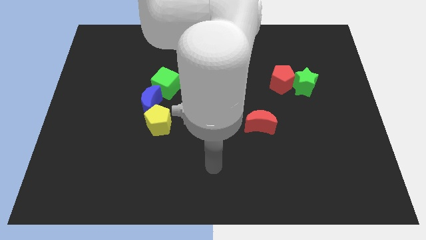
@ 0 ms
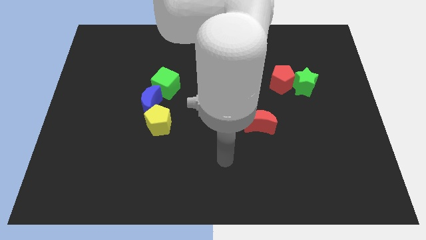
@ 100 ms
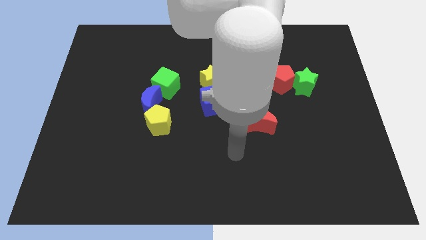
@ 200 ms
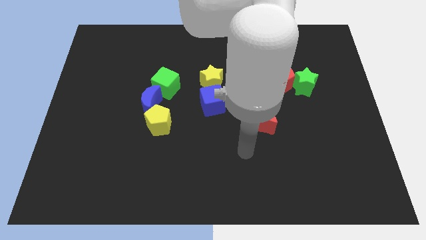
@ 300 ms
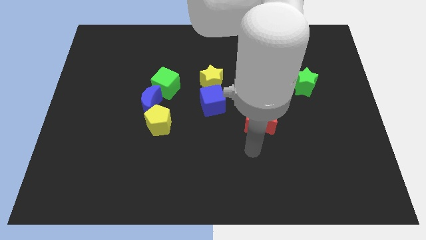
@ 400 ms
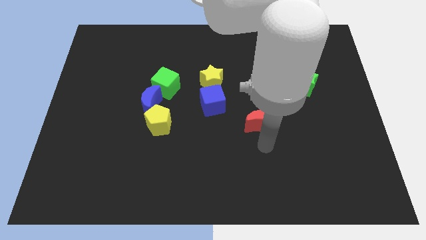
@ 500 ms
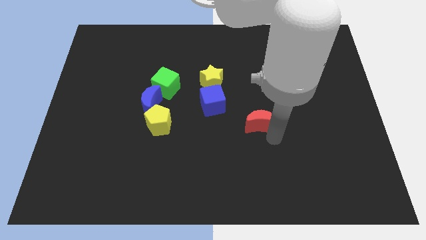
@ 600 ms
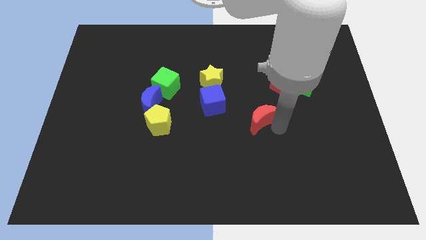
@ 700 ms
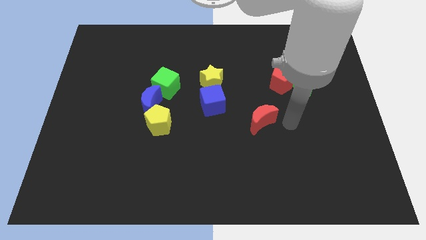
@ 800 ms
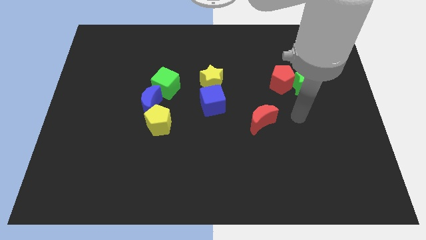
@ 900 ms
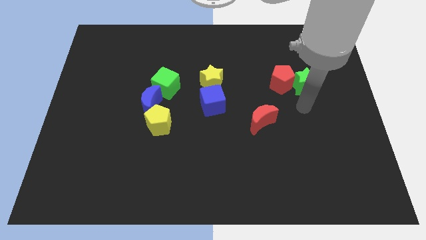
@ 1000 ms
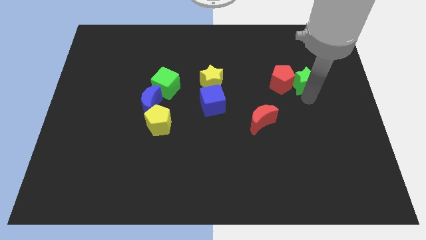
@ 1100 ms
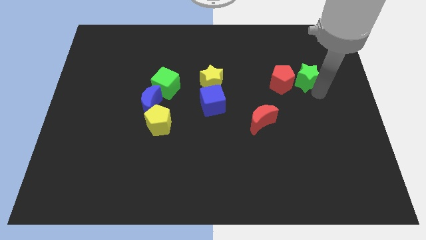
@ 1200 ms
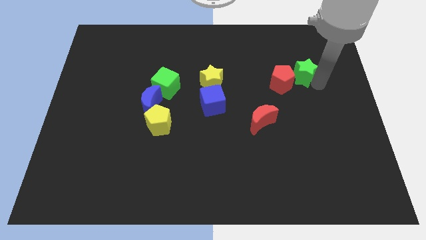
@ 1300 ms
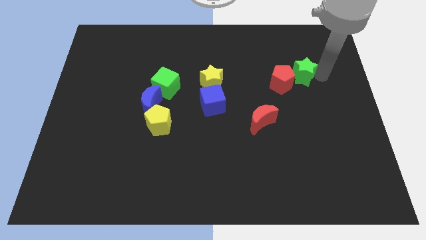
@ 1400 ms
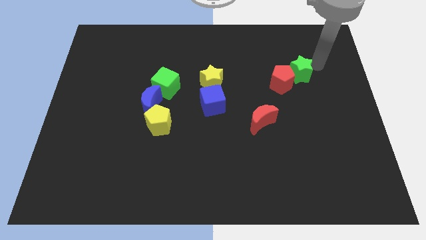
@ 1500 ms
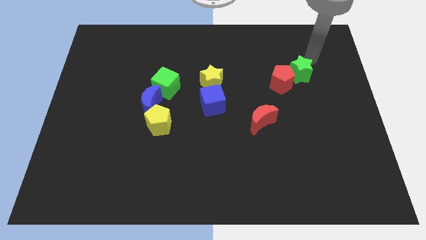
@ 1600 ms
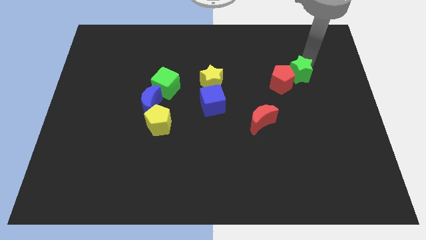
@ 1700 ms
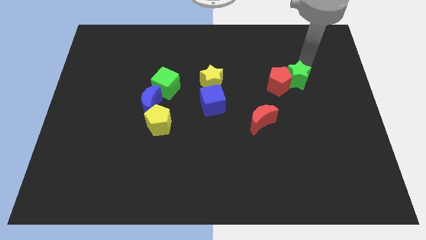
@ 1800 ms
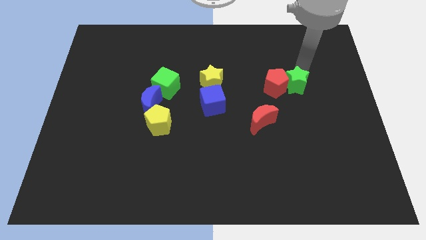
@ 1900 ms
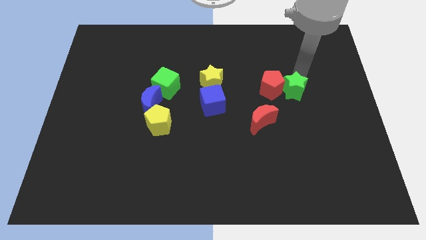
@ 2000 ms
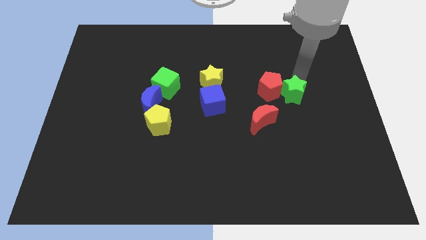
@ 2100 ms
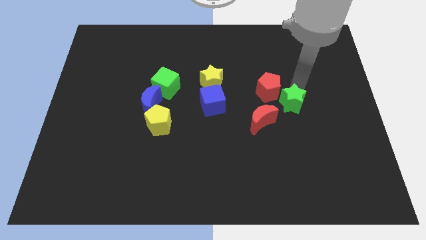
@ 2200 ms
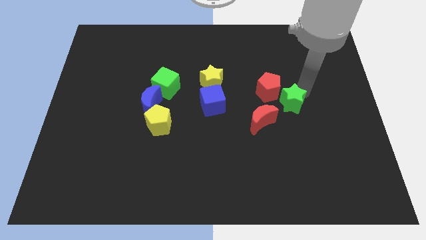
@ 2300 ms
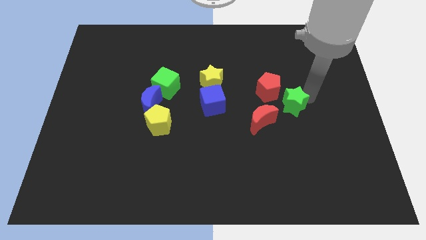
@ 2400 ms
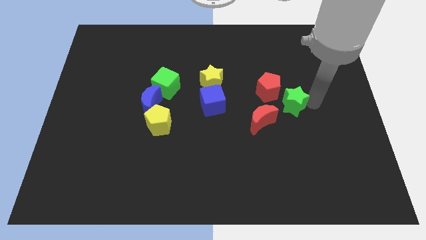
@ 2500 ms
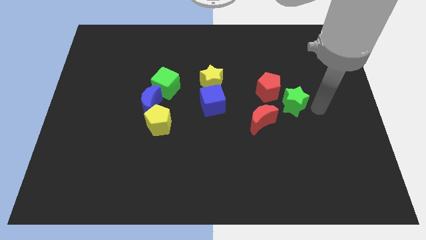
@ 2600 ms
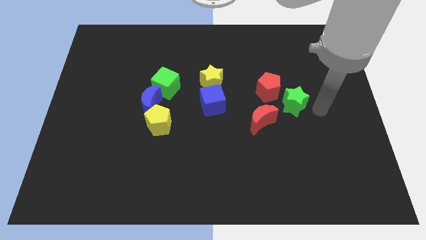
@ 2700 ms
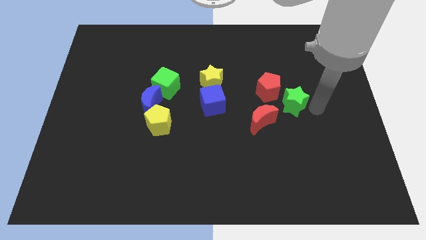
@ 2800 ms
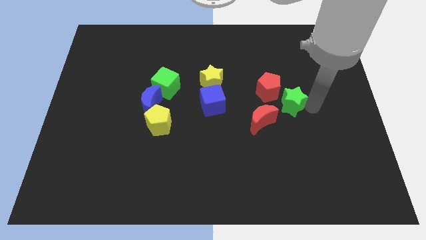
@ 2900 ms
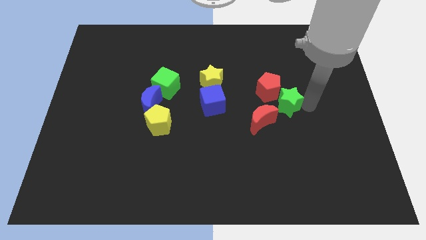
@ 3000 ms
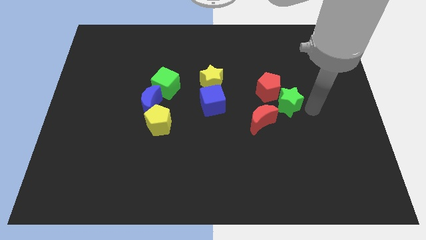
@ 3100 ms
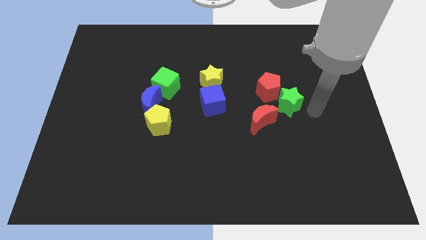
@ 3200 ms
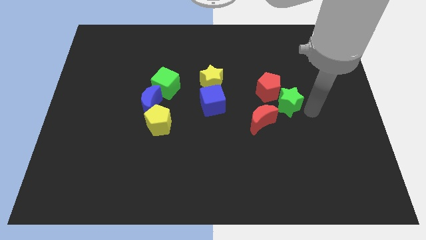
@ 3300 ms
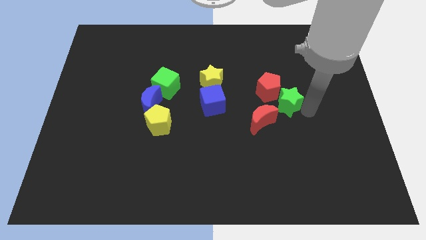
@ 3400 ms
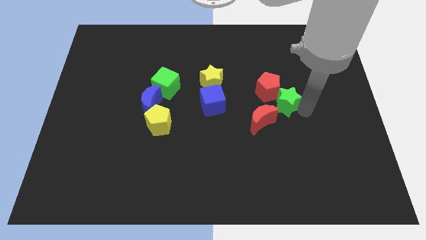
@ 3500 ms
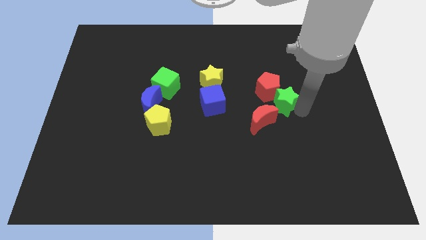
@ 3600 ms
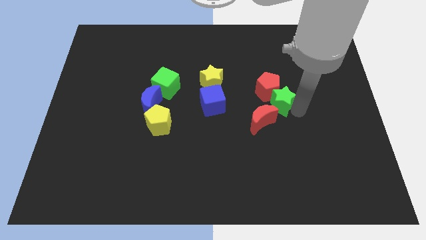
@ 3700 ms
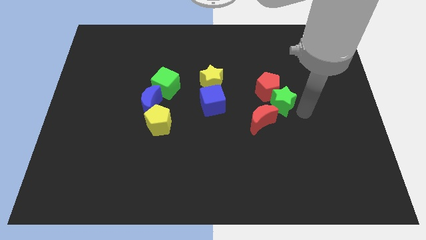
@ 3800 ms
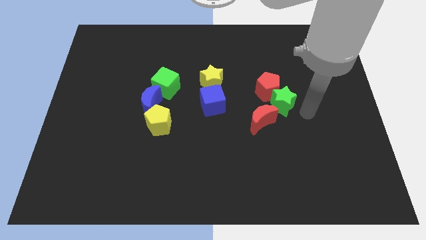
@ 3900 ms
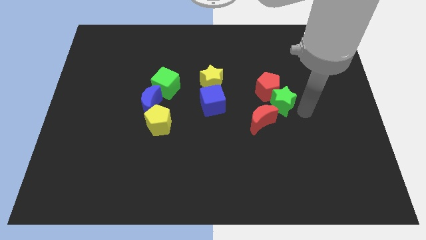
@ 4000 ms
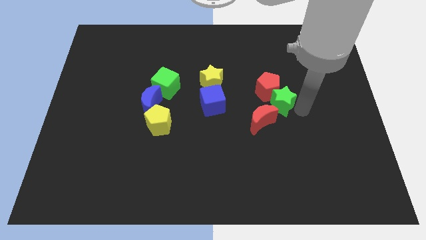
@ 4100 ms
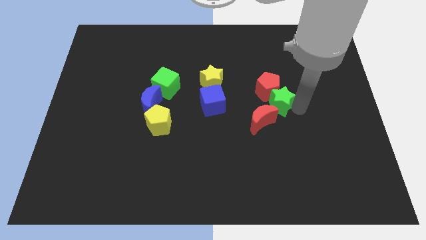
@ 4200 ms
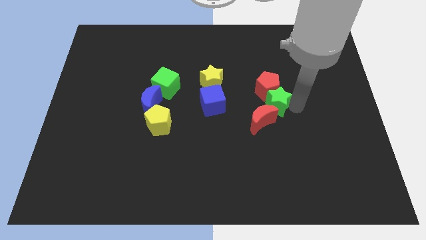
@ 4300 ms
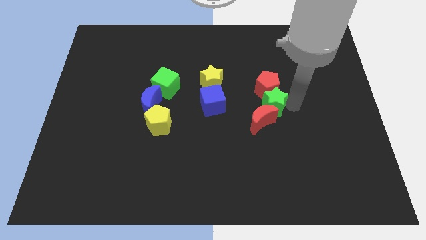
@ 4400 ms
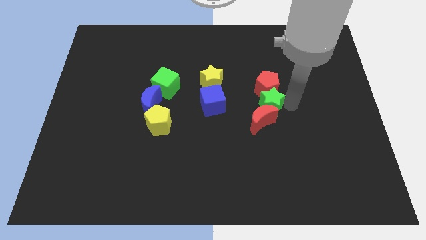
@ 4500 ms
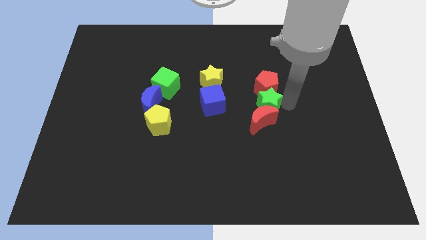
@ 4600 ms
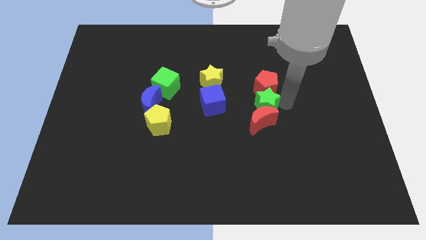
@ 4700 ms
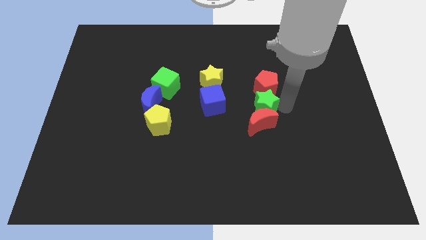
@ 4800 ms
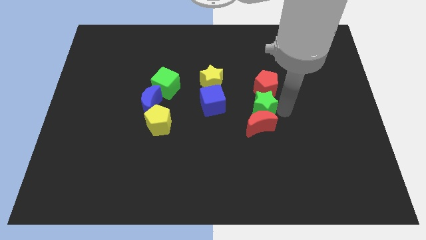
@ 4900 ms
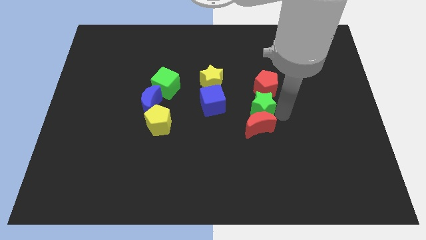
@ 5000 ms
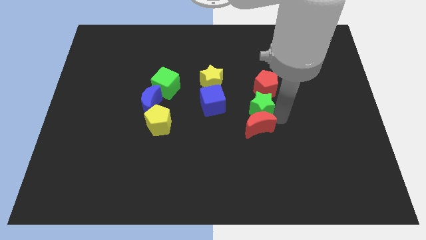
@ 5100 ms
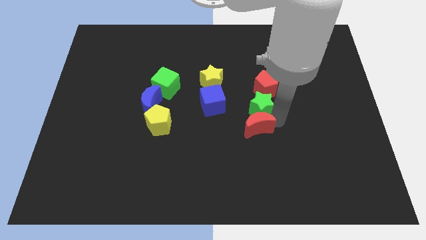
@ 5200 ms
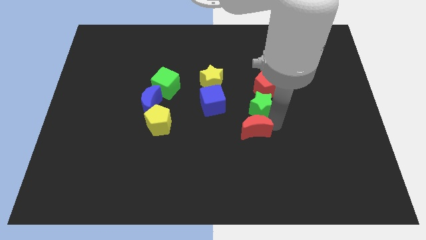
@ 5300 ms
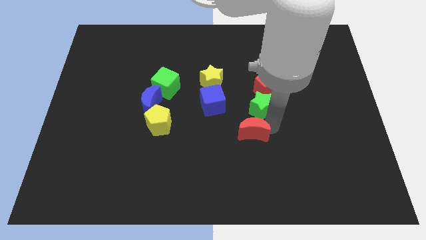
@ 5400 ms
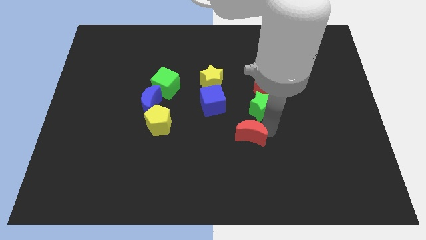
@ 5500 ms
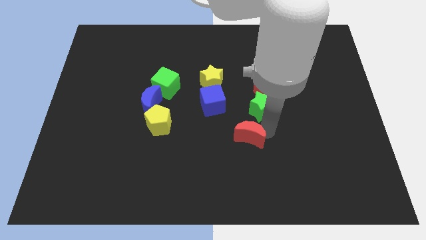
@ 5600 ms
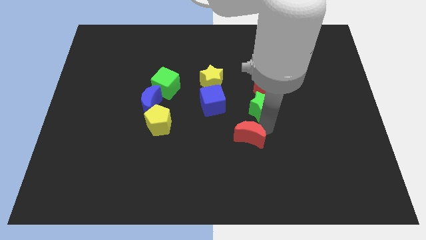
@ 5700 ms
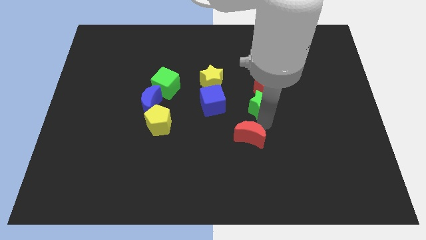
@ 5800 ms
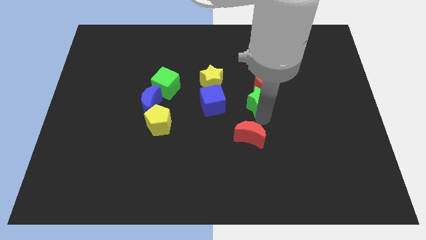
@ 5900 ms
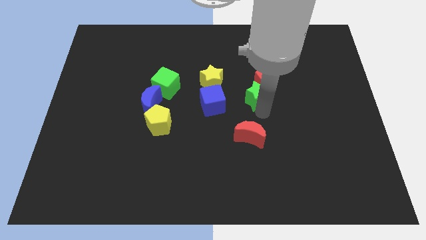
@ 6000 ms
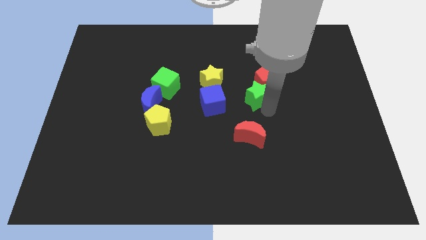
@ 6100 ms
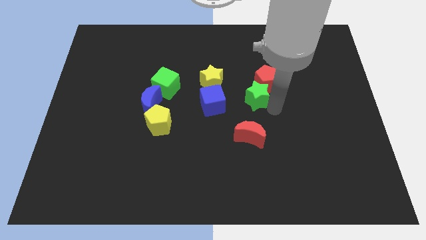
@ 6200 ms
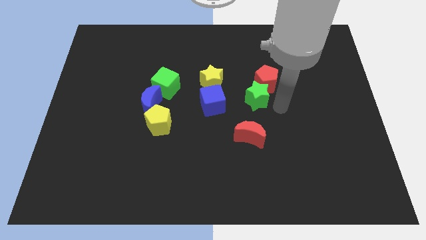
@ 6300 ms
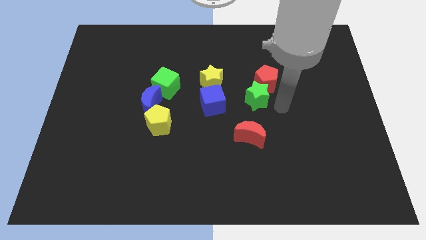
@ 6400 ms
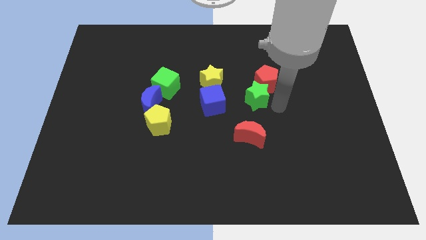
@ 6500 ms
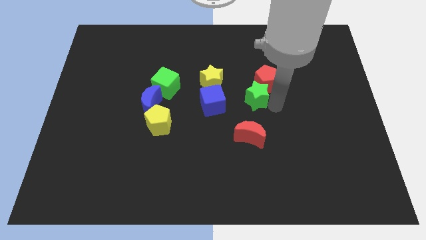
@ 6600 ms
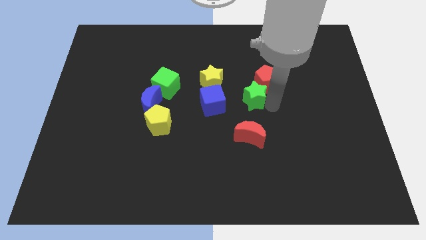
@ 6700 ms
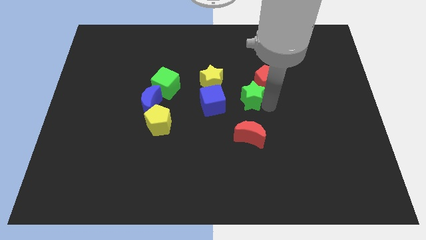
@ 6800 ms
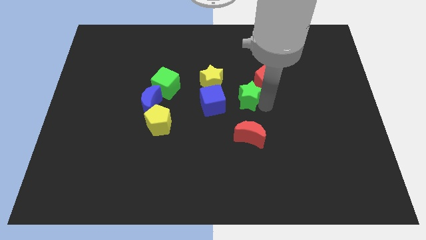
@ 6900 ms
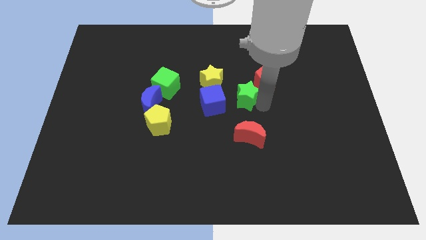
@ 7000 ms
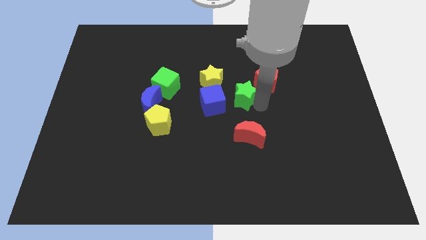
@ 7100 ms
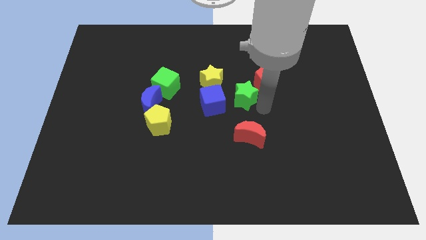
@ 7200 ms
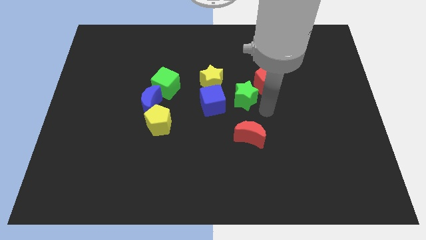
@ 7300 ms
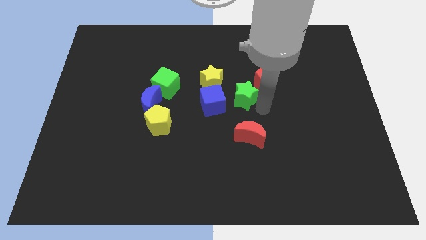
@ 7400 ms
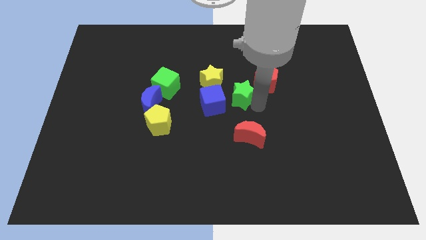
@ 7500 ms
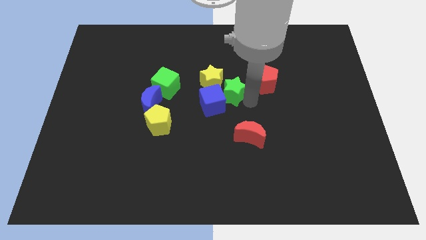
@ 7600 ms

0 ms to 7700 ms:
put the green star to the yellow star
